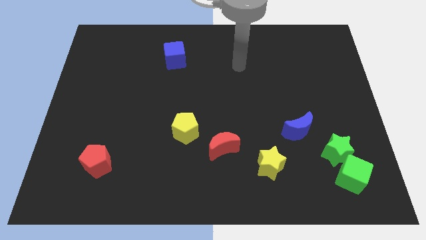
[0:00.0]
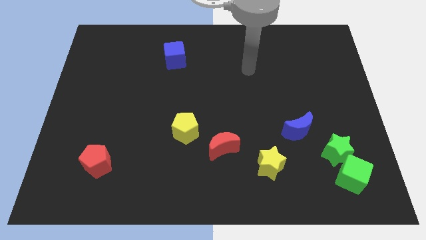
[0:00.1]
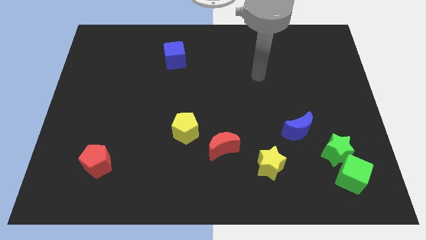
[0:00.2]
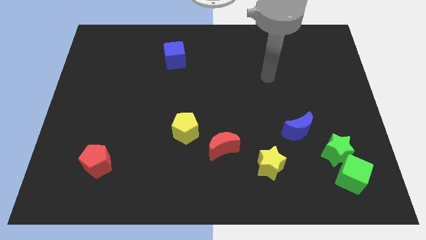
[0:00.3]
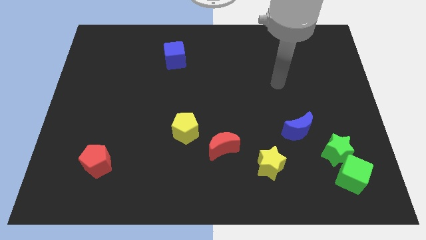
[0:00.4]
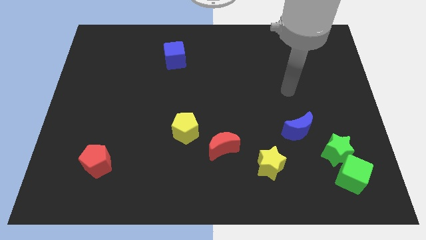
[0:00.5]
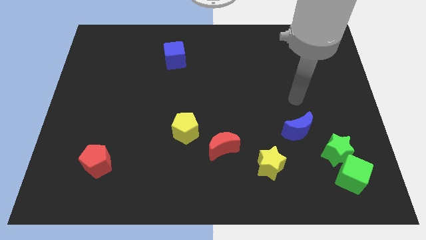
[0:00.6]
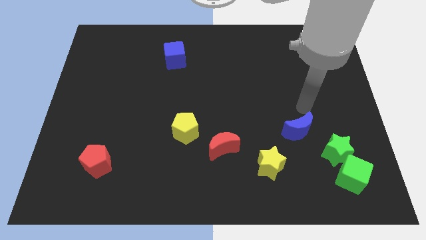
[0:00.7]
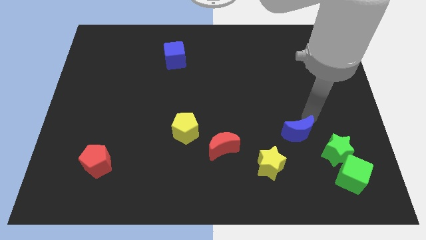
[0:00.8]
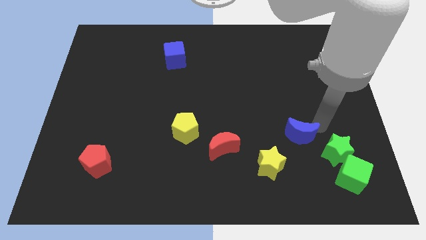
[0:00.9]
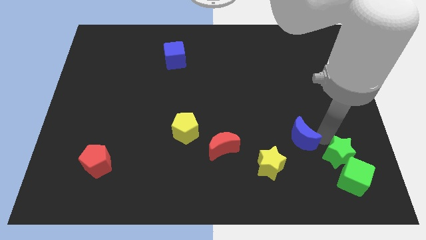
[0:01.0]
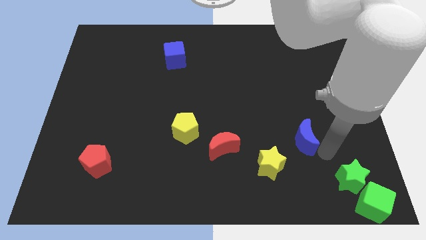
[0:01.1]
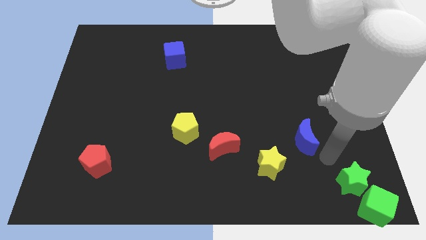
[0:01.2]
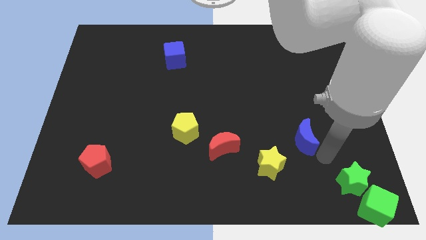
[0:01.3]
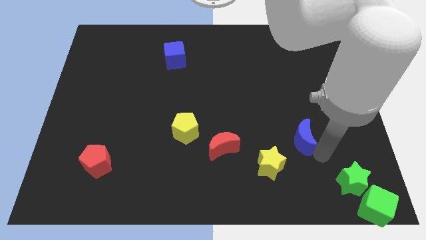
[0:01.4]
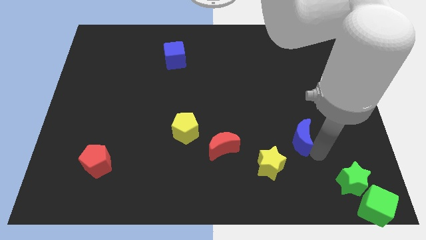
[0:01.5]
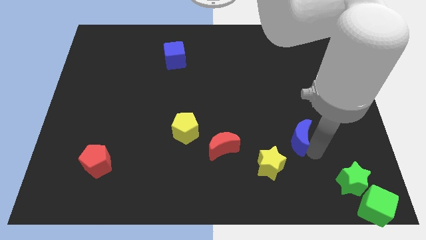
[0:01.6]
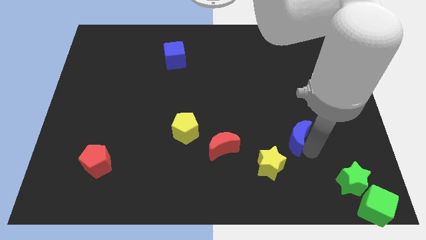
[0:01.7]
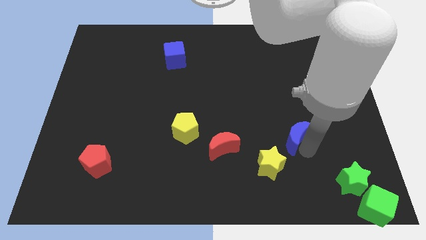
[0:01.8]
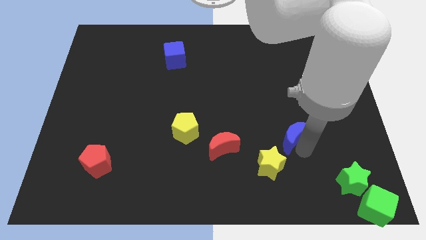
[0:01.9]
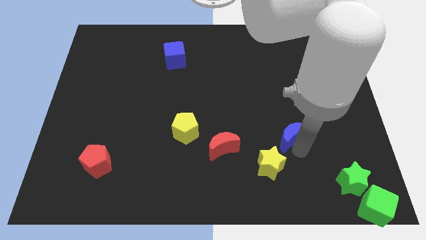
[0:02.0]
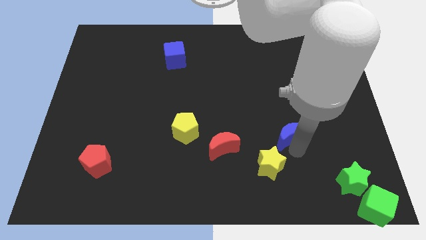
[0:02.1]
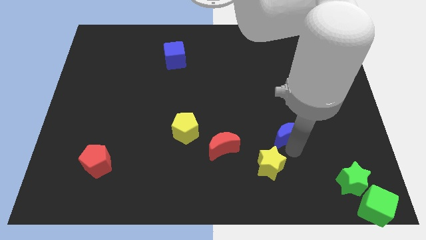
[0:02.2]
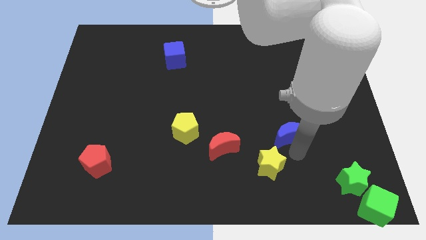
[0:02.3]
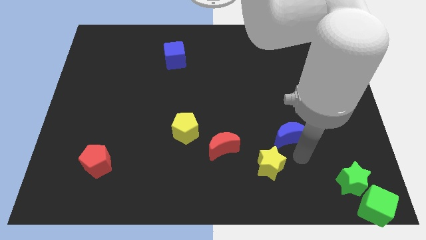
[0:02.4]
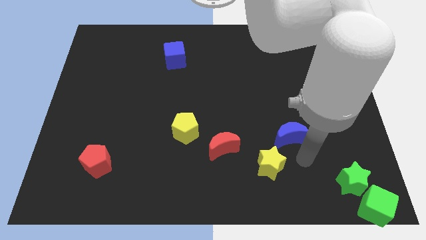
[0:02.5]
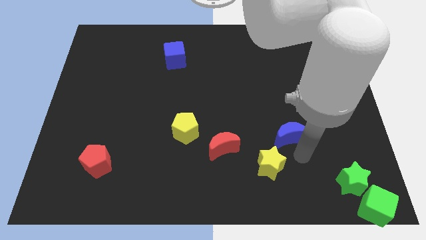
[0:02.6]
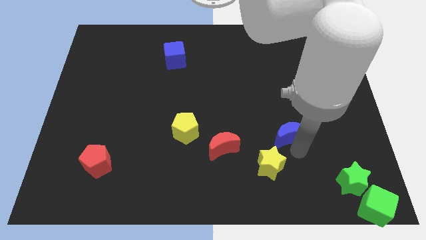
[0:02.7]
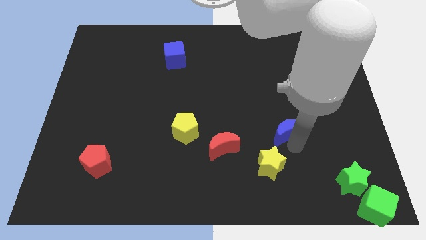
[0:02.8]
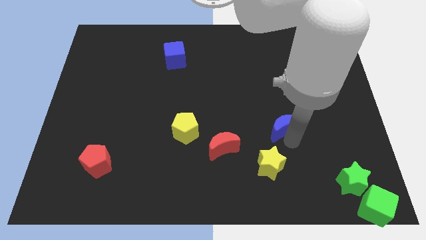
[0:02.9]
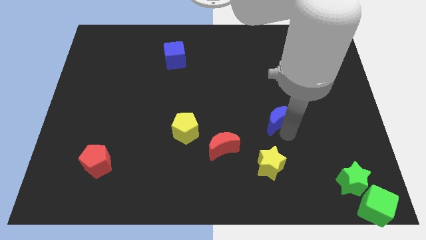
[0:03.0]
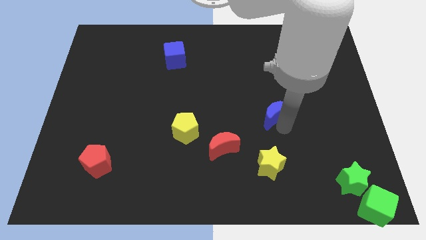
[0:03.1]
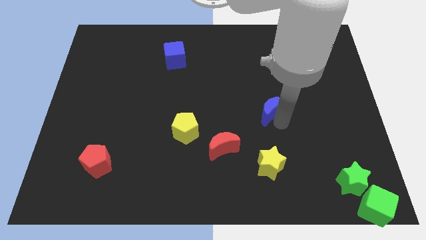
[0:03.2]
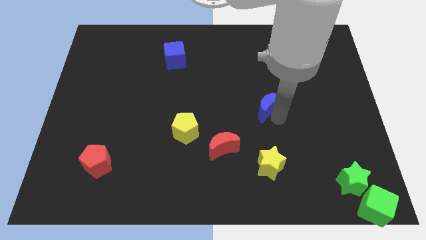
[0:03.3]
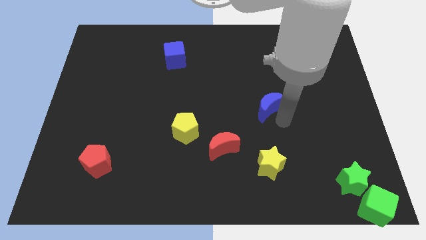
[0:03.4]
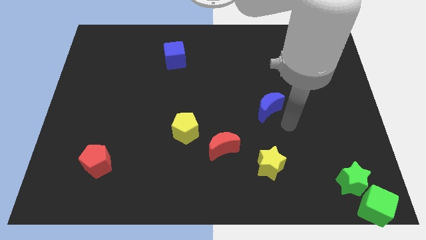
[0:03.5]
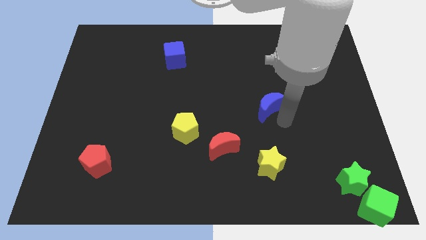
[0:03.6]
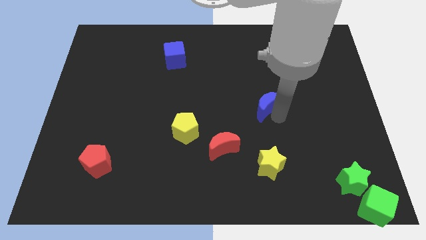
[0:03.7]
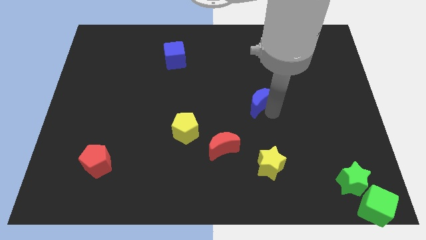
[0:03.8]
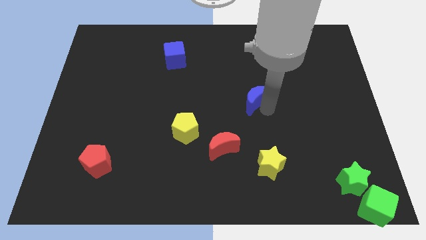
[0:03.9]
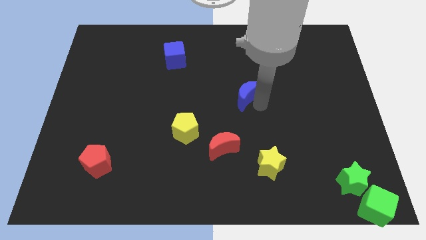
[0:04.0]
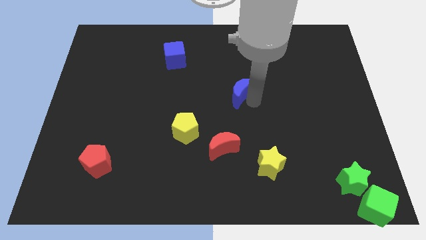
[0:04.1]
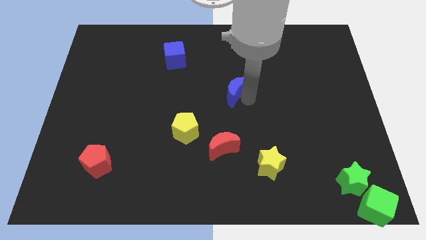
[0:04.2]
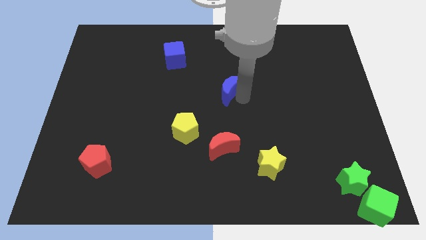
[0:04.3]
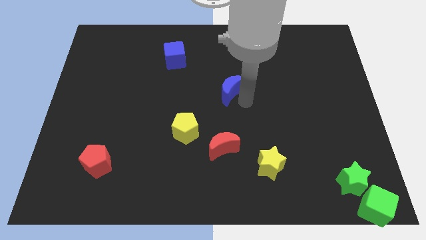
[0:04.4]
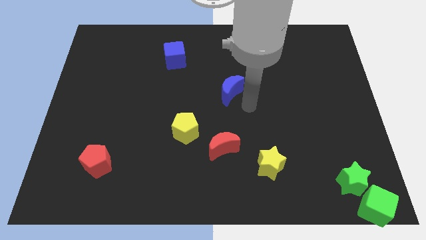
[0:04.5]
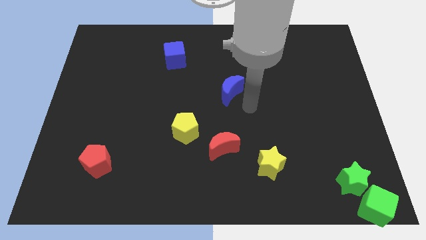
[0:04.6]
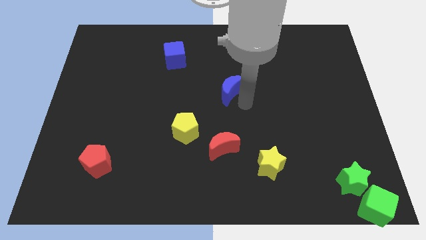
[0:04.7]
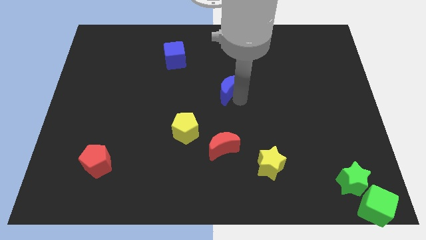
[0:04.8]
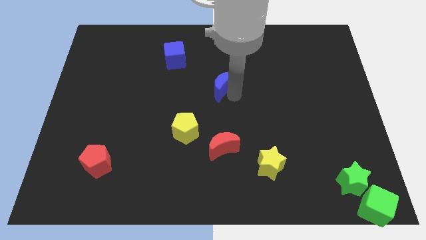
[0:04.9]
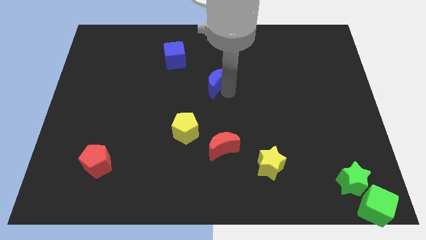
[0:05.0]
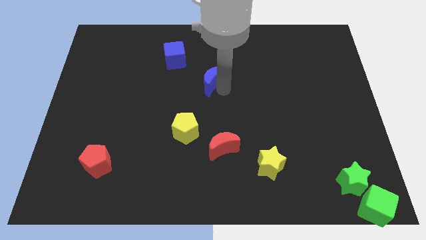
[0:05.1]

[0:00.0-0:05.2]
move the blue moon to the bottom right of the blue cube

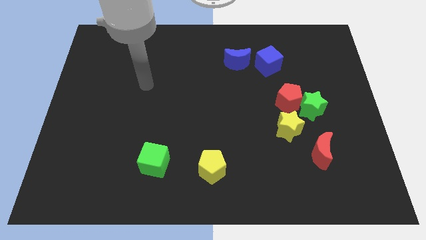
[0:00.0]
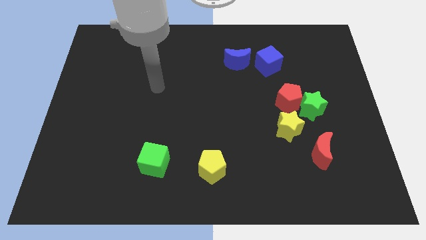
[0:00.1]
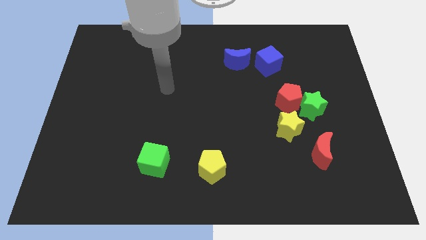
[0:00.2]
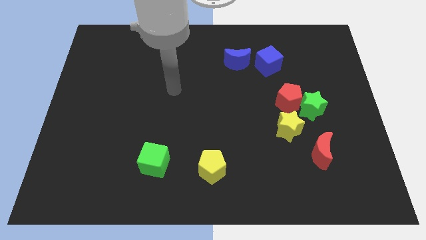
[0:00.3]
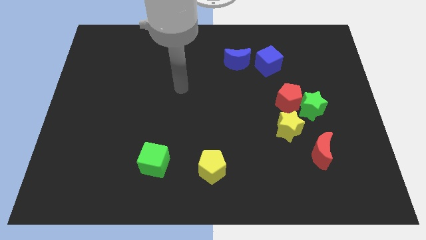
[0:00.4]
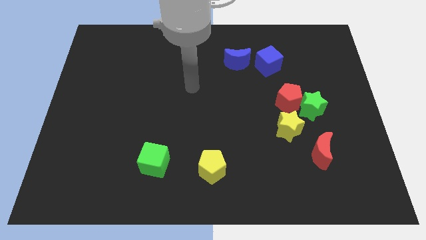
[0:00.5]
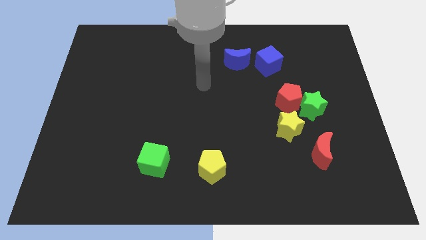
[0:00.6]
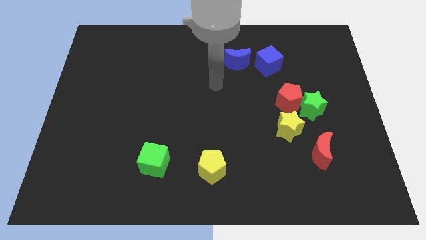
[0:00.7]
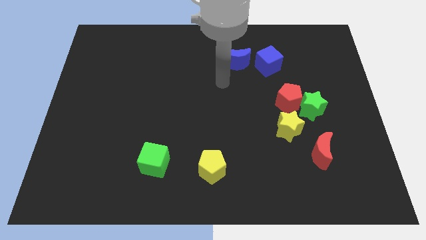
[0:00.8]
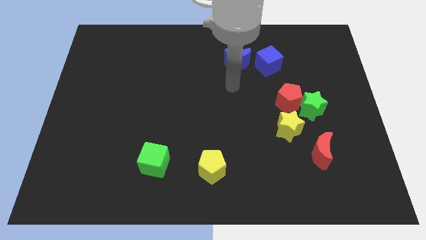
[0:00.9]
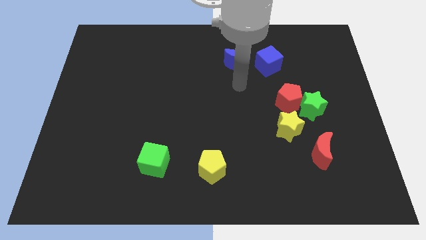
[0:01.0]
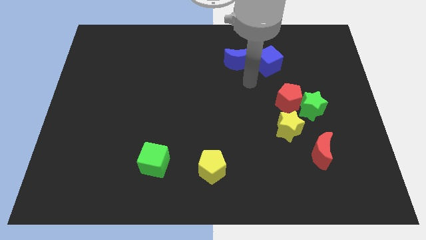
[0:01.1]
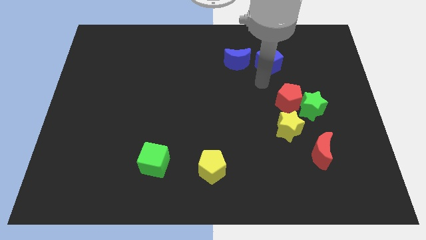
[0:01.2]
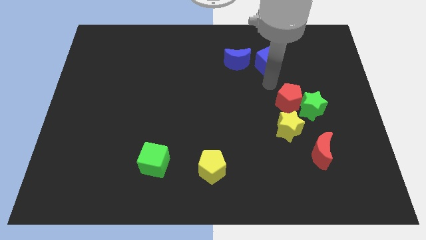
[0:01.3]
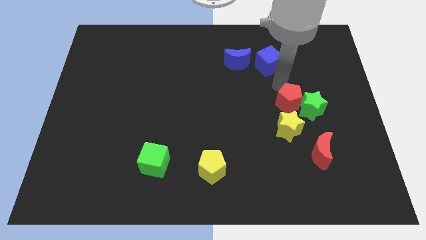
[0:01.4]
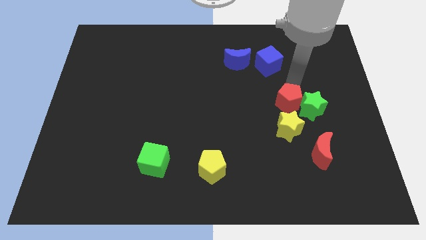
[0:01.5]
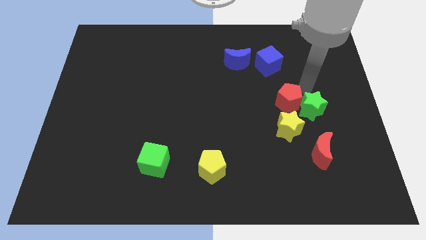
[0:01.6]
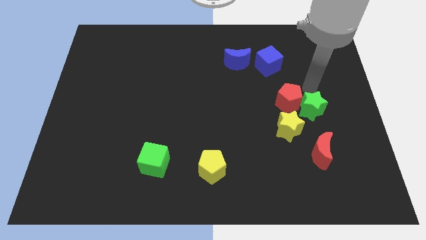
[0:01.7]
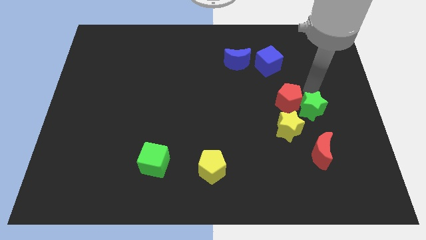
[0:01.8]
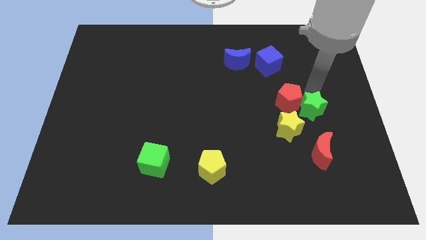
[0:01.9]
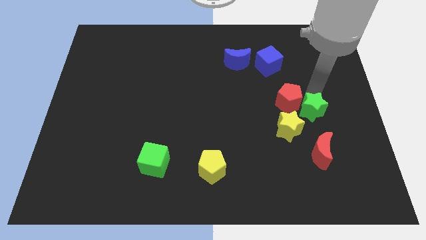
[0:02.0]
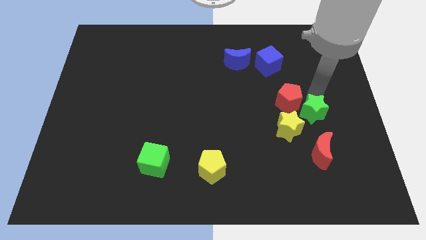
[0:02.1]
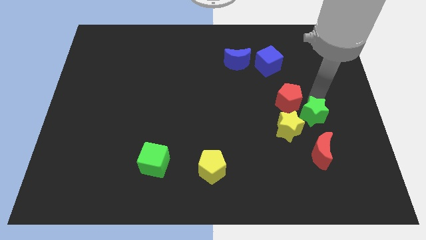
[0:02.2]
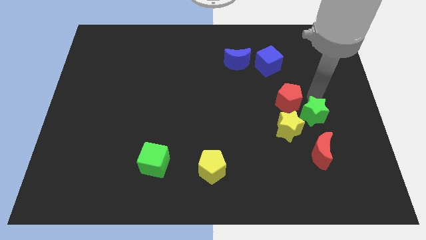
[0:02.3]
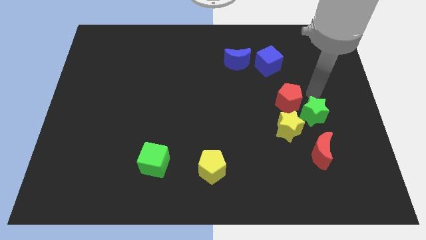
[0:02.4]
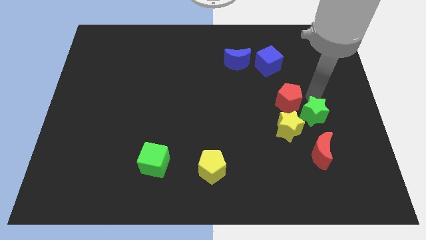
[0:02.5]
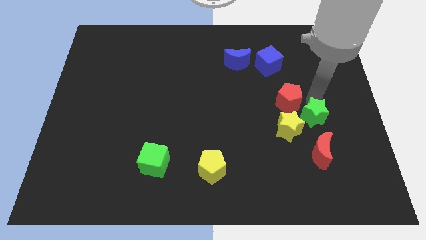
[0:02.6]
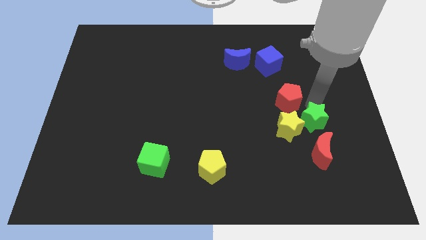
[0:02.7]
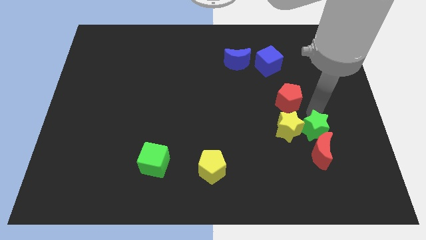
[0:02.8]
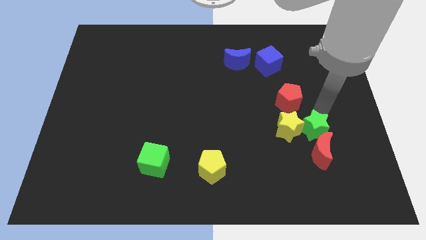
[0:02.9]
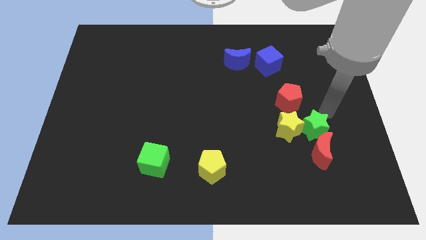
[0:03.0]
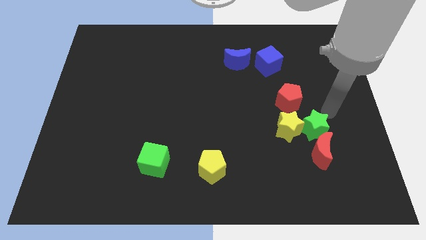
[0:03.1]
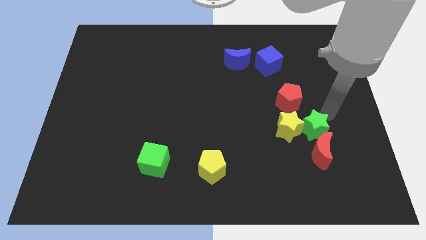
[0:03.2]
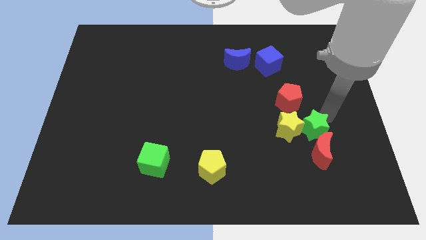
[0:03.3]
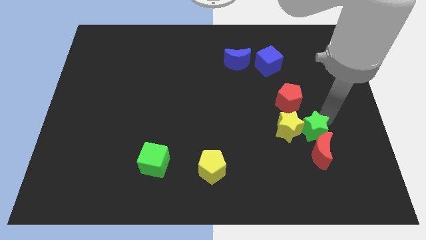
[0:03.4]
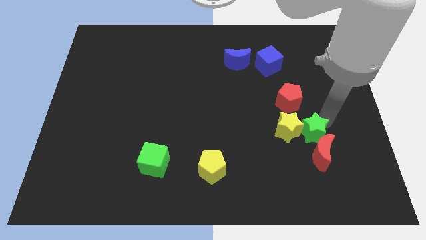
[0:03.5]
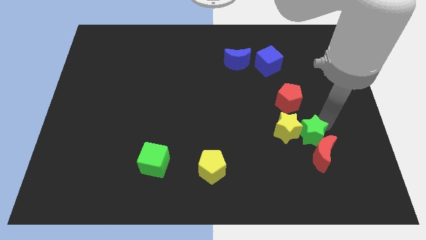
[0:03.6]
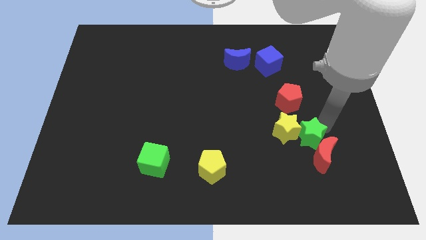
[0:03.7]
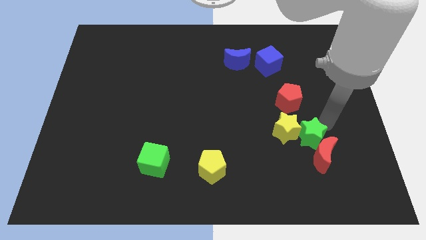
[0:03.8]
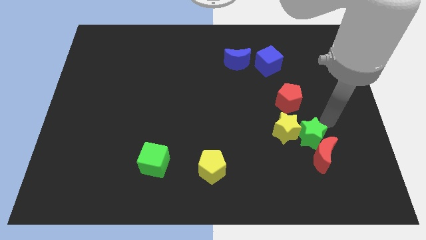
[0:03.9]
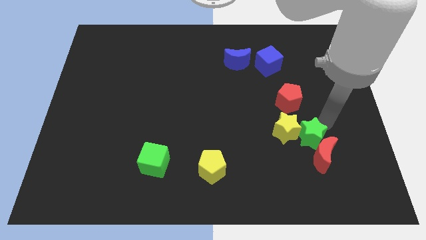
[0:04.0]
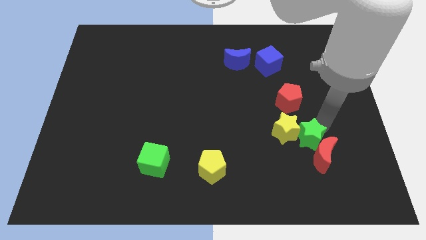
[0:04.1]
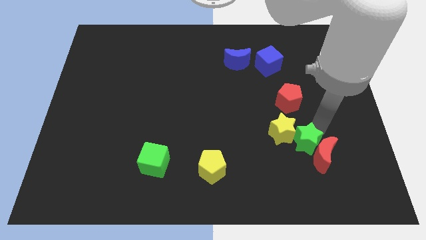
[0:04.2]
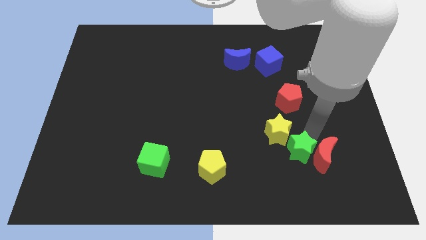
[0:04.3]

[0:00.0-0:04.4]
slide the green star to the bottom of the yellow star
